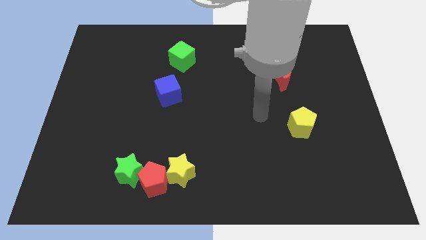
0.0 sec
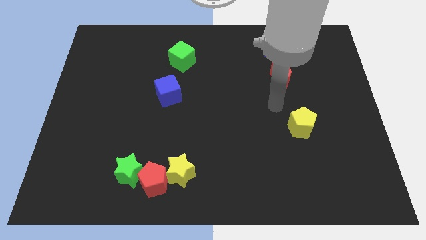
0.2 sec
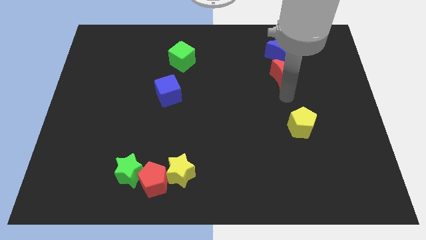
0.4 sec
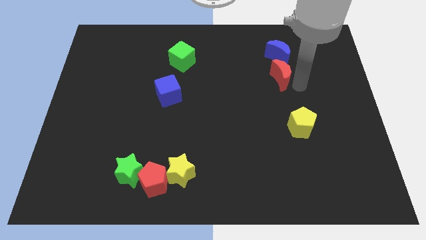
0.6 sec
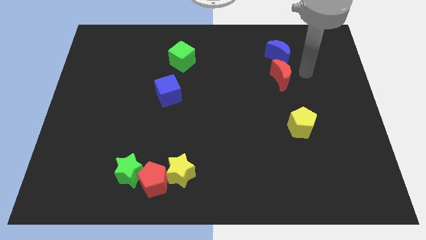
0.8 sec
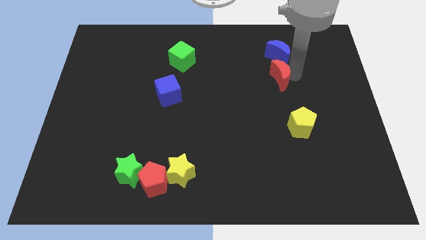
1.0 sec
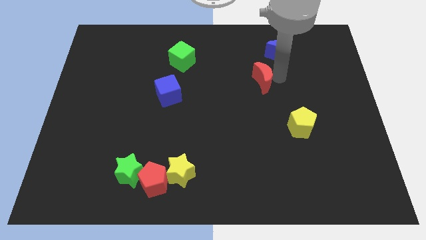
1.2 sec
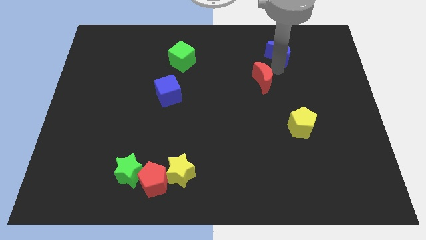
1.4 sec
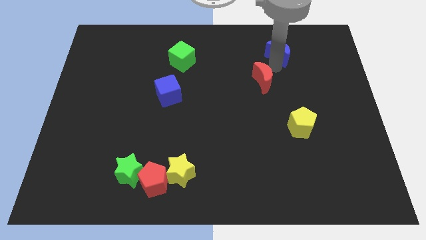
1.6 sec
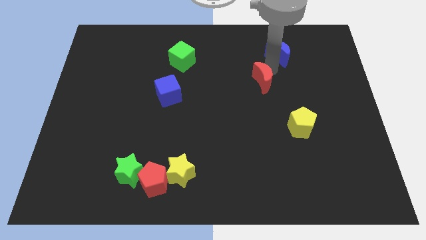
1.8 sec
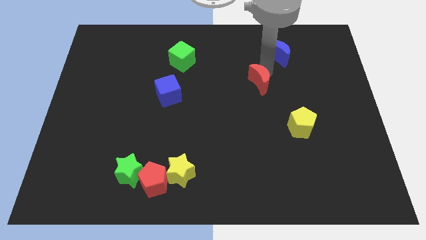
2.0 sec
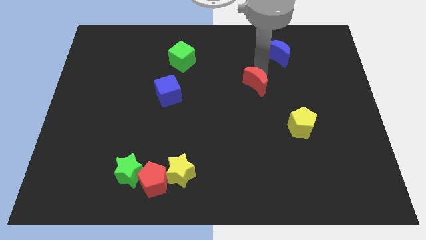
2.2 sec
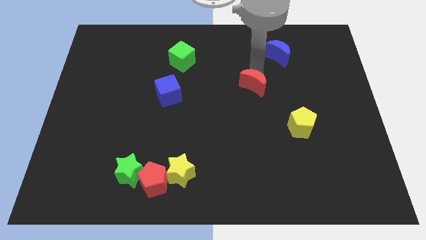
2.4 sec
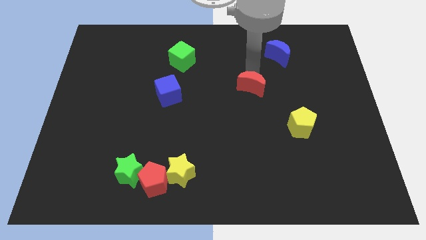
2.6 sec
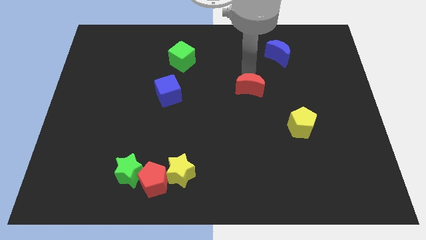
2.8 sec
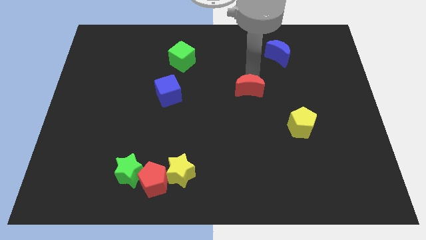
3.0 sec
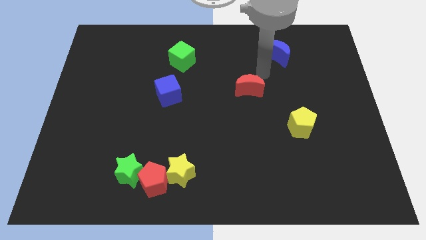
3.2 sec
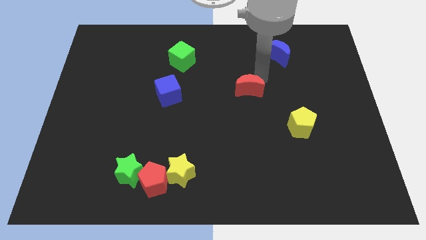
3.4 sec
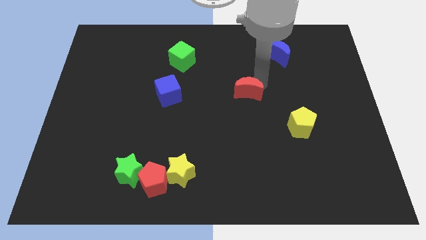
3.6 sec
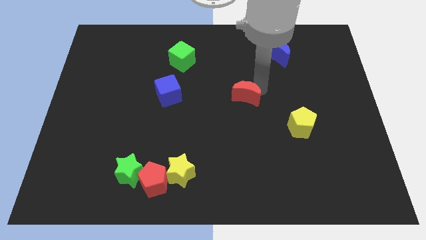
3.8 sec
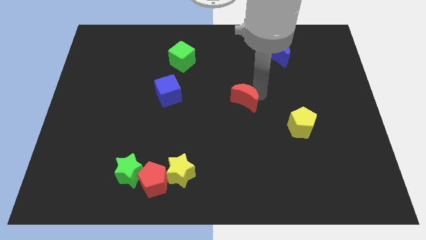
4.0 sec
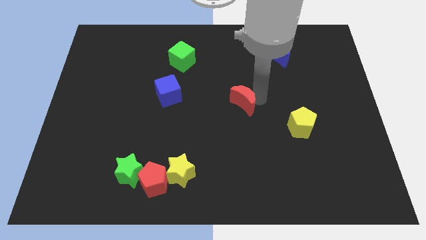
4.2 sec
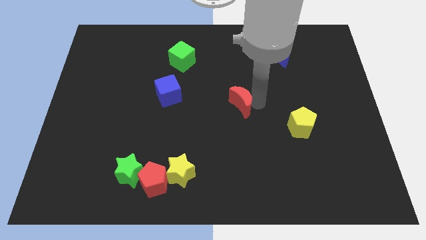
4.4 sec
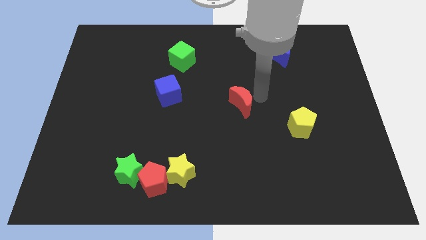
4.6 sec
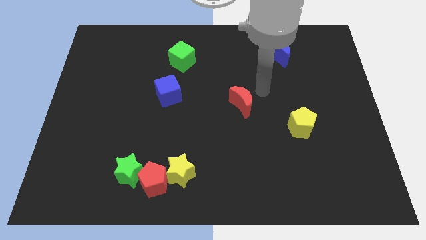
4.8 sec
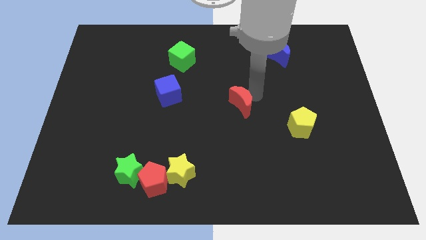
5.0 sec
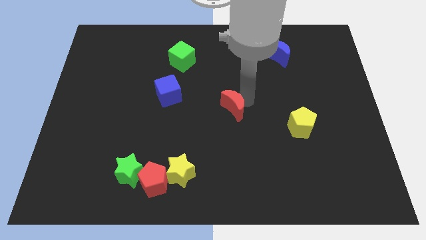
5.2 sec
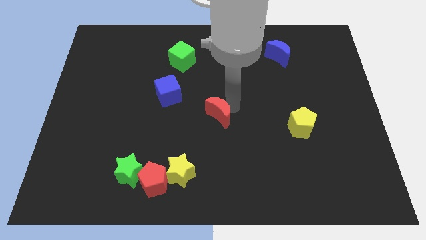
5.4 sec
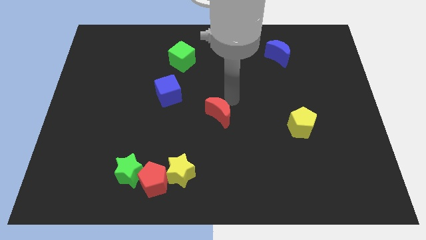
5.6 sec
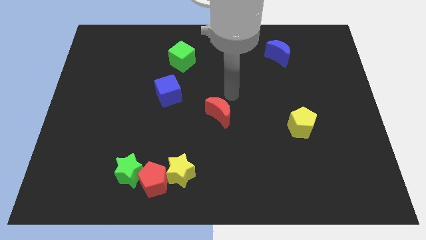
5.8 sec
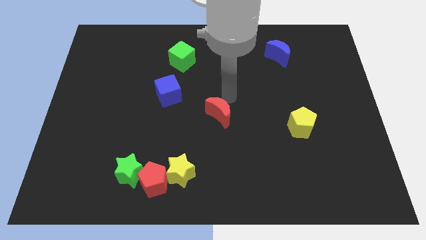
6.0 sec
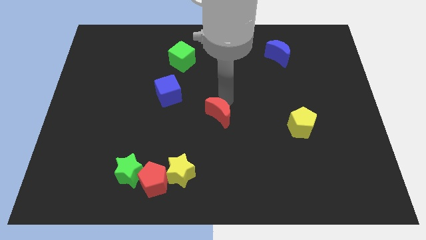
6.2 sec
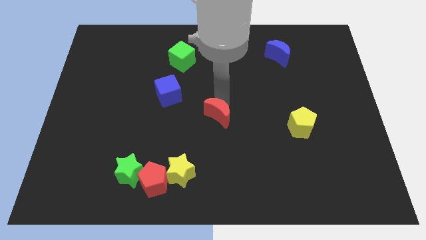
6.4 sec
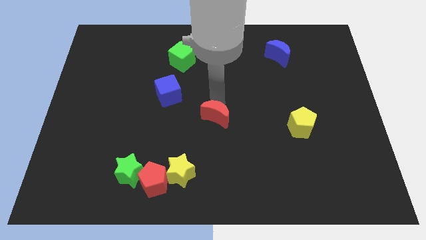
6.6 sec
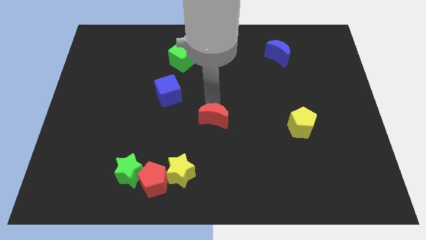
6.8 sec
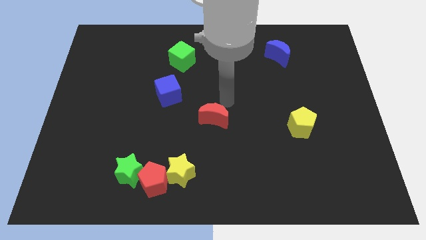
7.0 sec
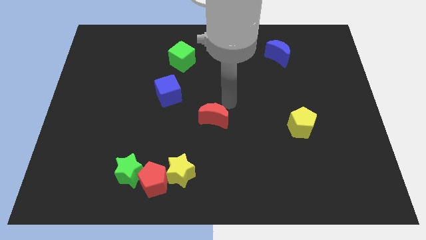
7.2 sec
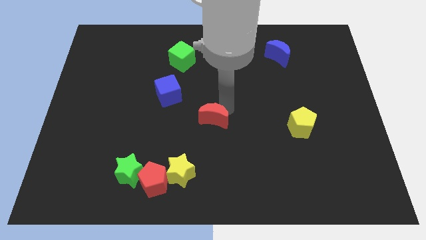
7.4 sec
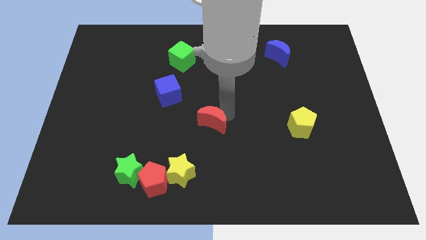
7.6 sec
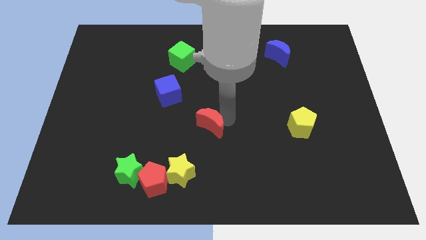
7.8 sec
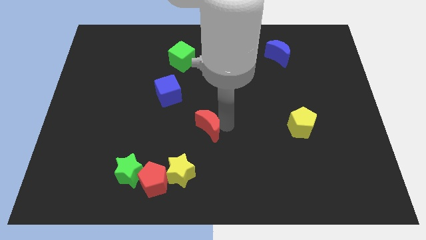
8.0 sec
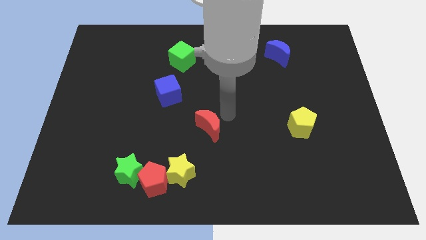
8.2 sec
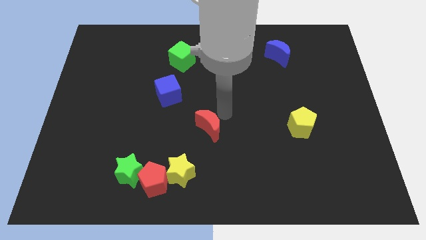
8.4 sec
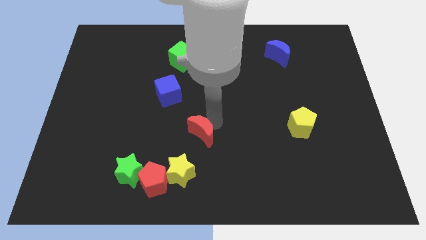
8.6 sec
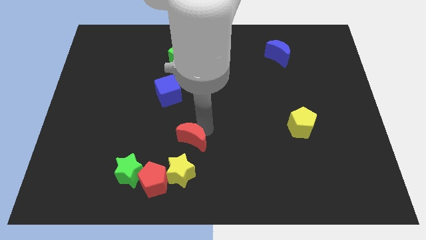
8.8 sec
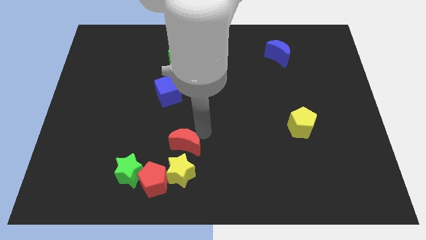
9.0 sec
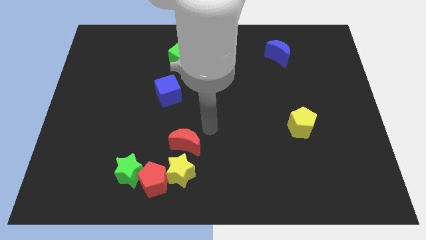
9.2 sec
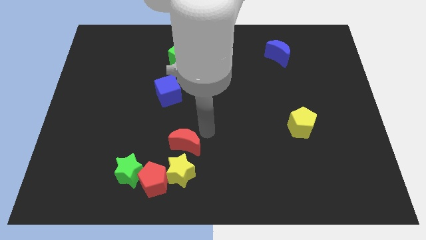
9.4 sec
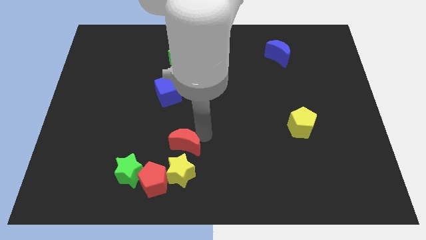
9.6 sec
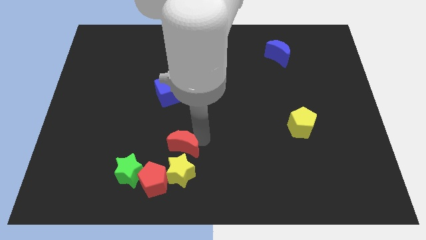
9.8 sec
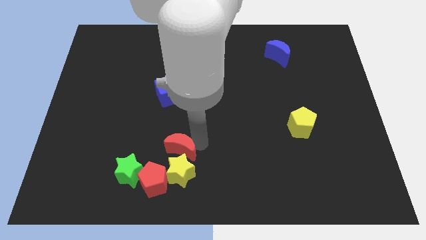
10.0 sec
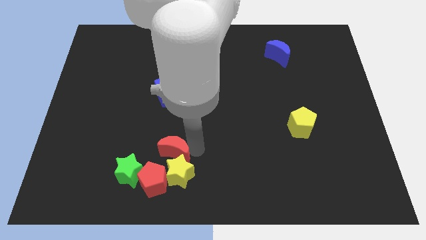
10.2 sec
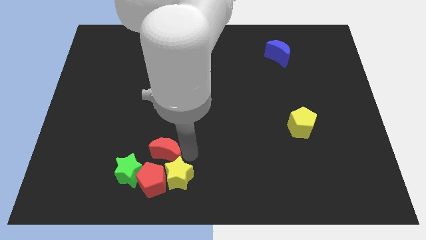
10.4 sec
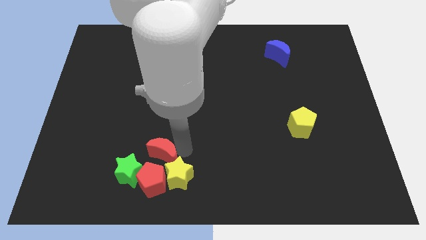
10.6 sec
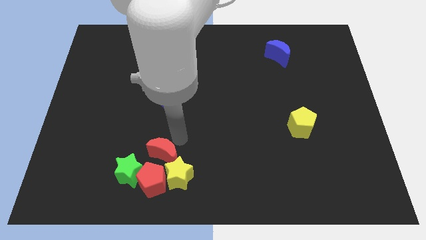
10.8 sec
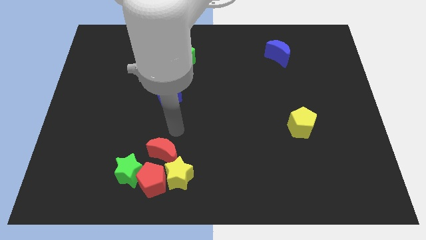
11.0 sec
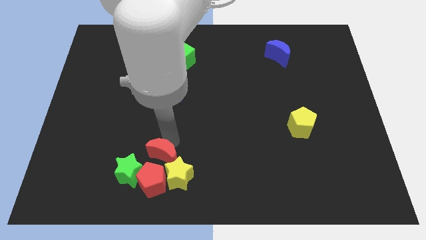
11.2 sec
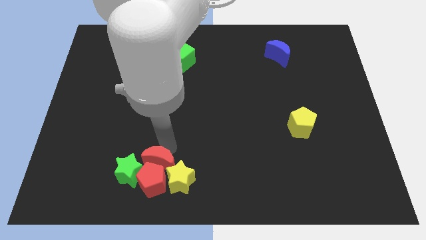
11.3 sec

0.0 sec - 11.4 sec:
move the red moon close to the red pentagon

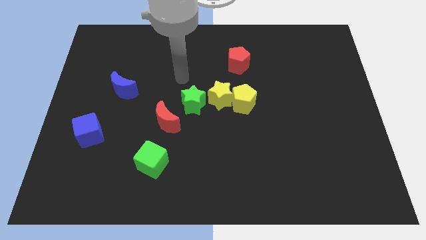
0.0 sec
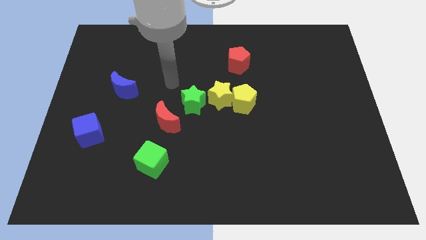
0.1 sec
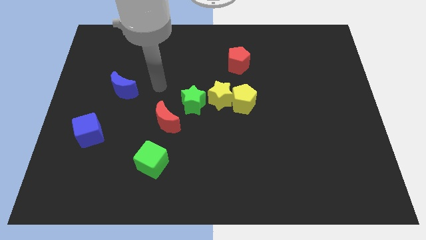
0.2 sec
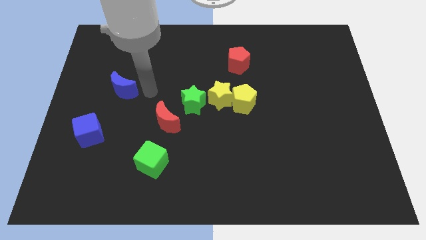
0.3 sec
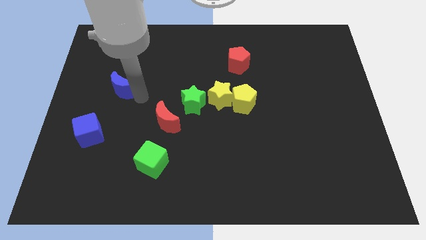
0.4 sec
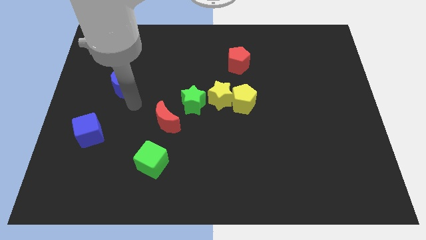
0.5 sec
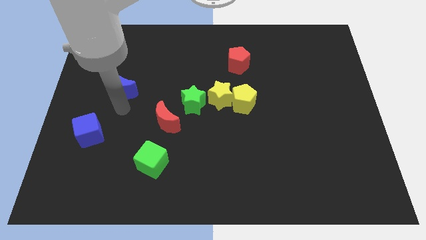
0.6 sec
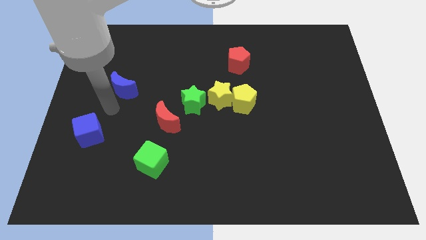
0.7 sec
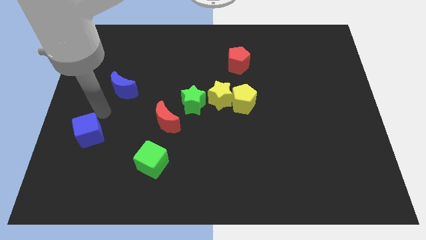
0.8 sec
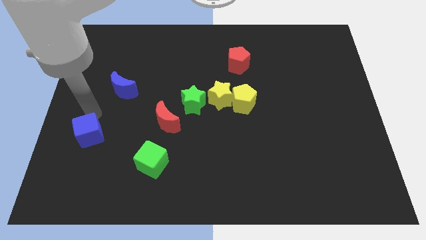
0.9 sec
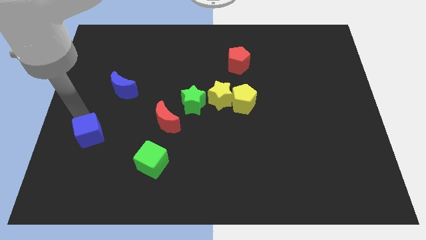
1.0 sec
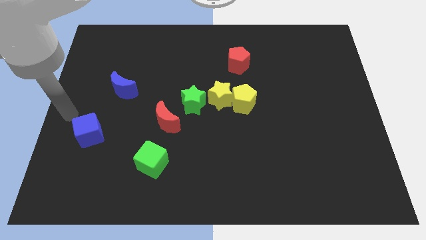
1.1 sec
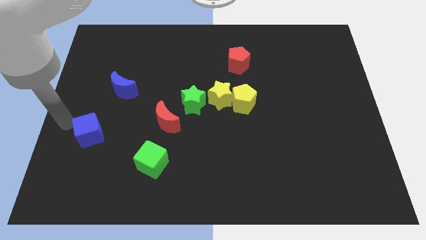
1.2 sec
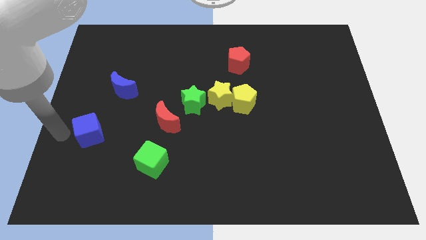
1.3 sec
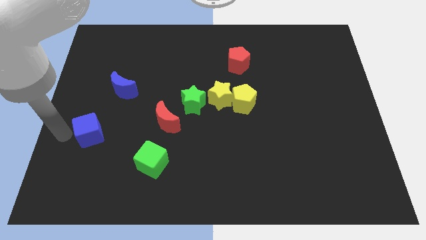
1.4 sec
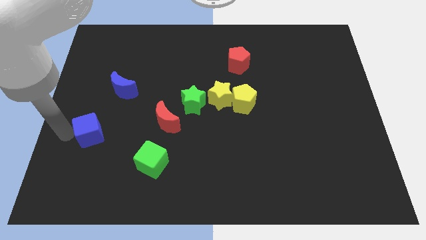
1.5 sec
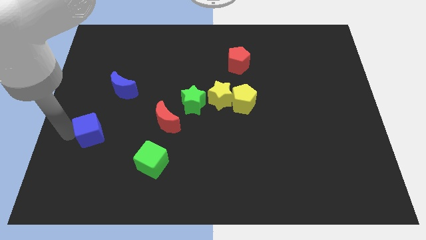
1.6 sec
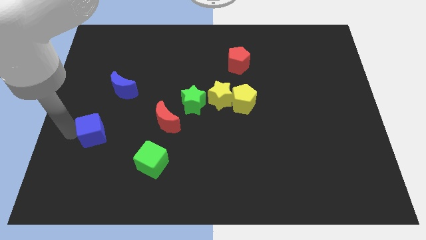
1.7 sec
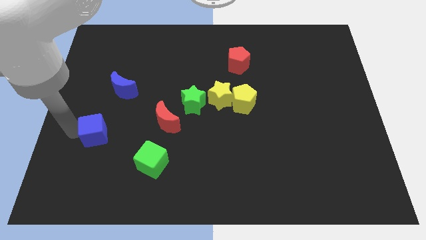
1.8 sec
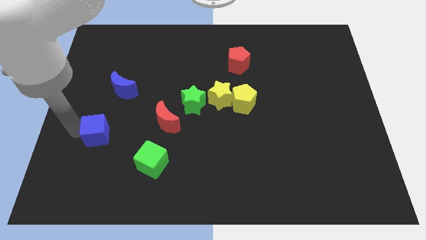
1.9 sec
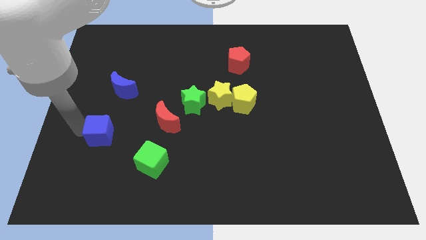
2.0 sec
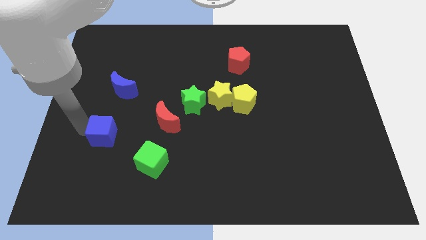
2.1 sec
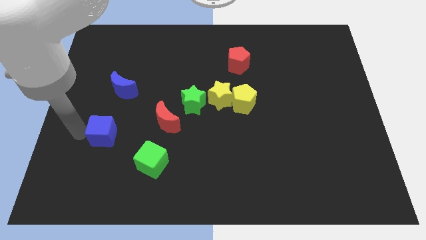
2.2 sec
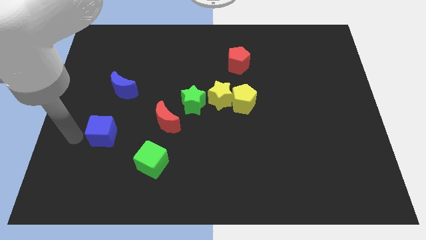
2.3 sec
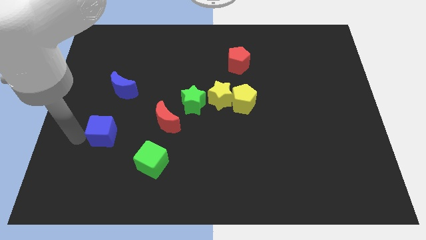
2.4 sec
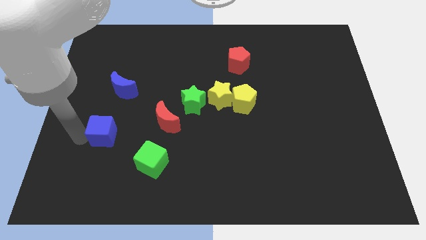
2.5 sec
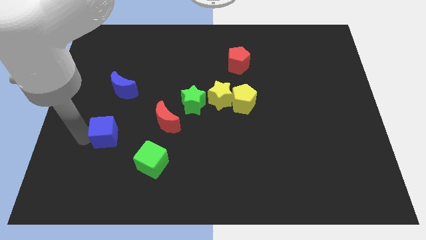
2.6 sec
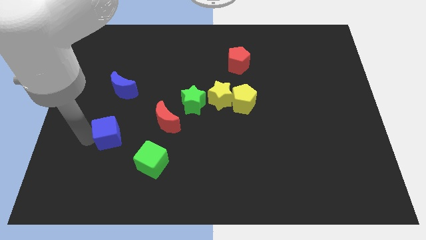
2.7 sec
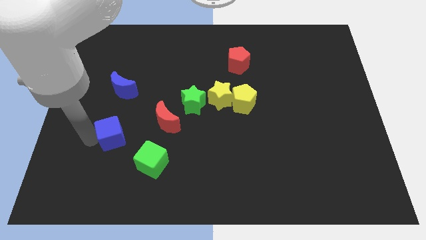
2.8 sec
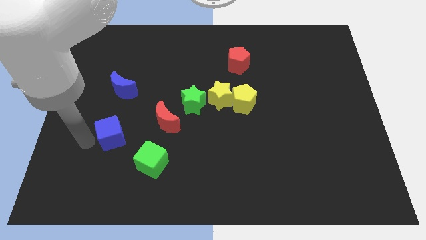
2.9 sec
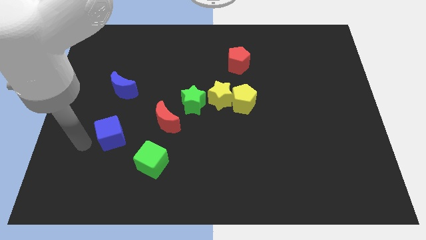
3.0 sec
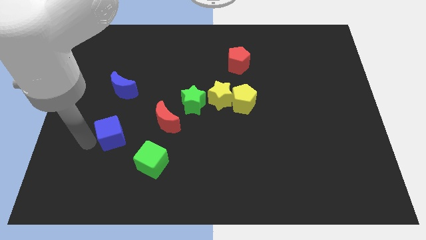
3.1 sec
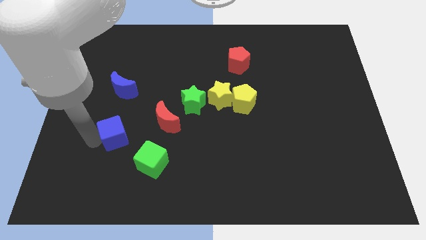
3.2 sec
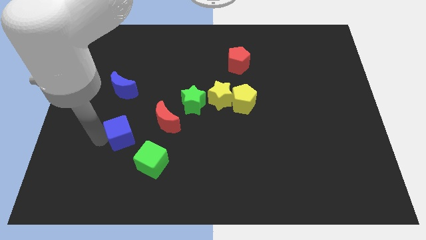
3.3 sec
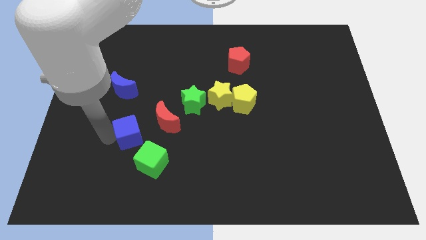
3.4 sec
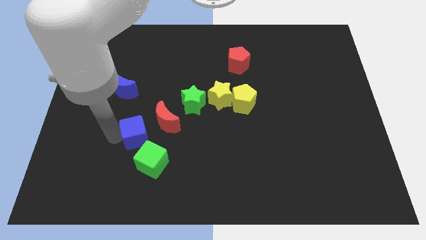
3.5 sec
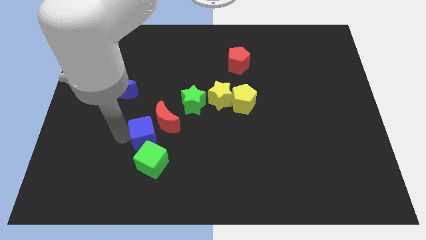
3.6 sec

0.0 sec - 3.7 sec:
move the blue cube close to the red moon
